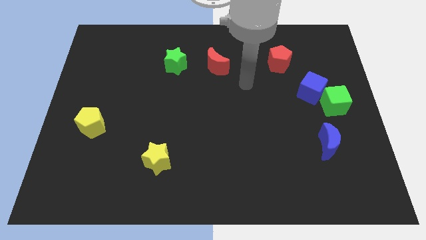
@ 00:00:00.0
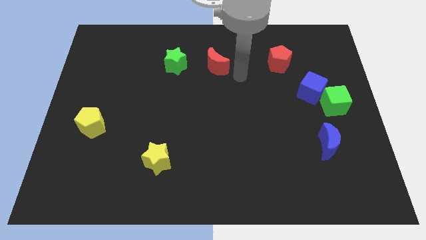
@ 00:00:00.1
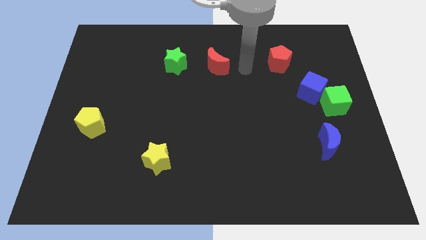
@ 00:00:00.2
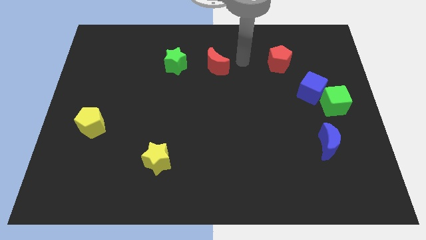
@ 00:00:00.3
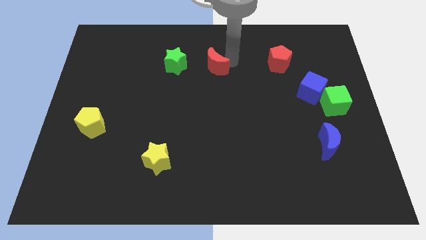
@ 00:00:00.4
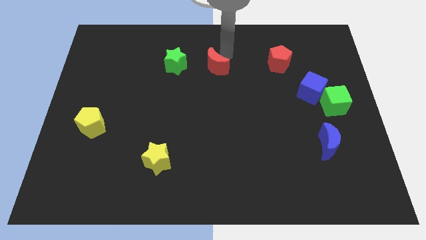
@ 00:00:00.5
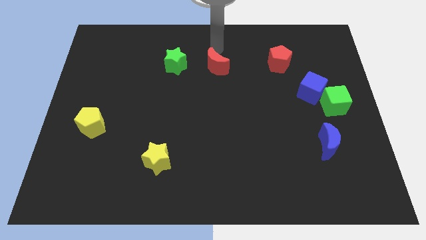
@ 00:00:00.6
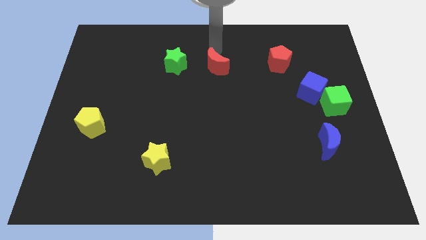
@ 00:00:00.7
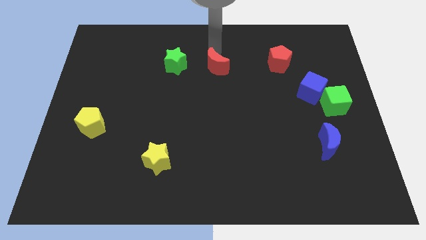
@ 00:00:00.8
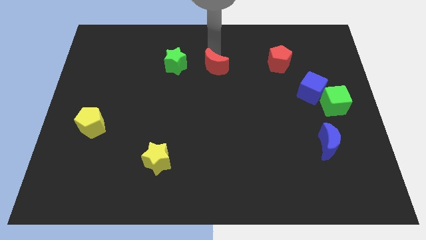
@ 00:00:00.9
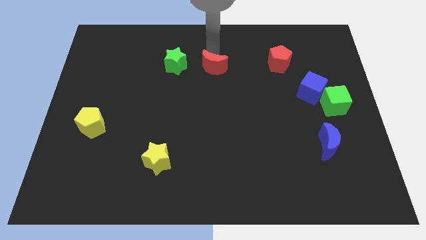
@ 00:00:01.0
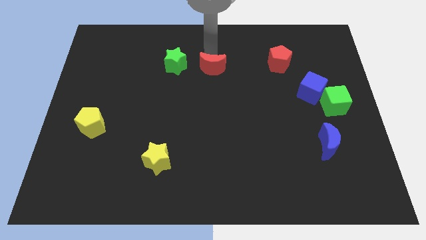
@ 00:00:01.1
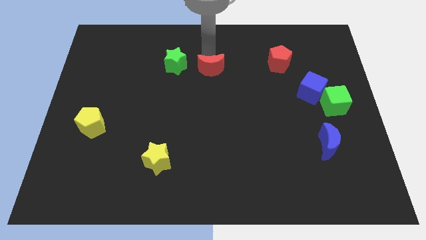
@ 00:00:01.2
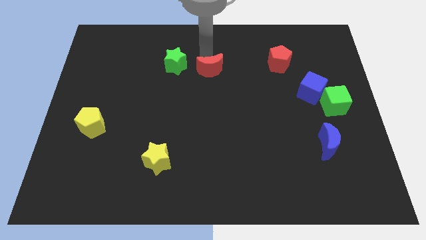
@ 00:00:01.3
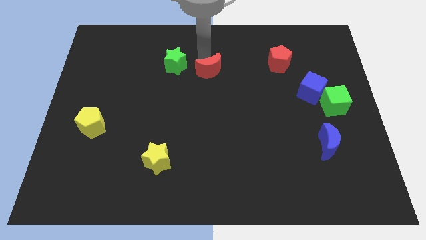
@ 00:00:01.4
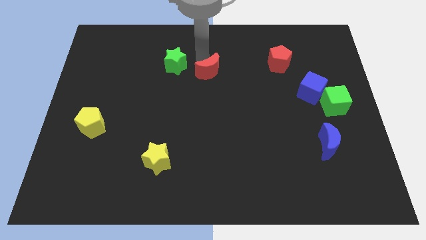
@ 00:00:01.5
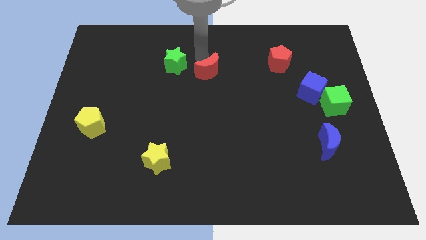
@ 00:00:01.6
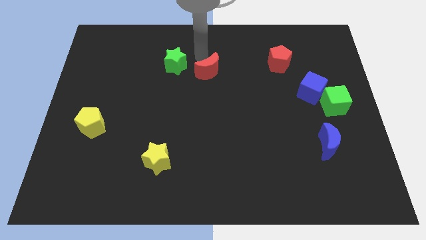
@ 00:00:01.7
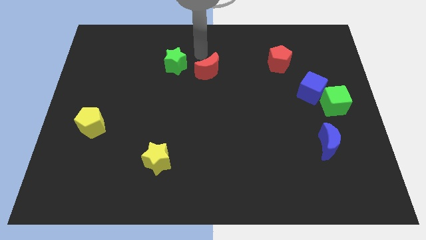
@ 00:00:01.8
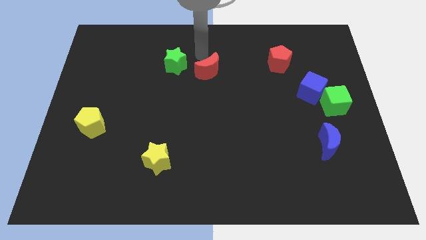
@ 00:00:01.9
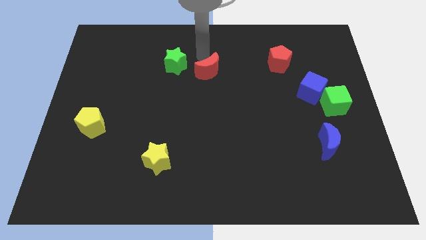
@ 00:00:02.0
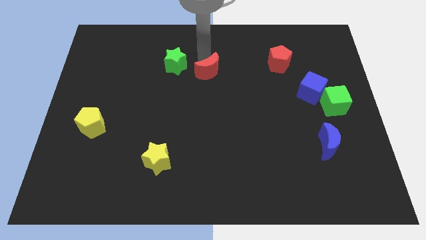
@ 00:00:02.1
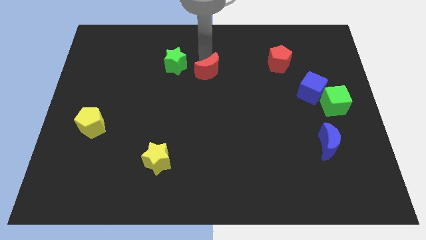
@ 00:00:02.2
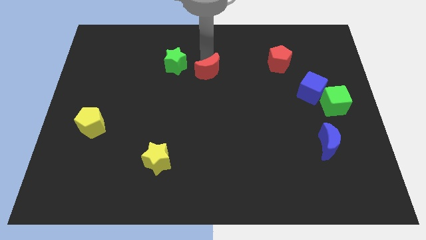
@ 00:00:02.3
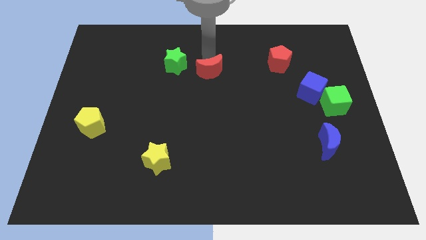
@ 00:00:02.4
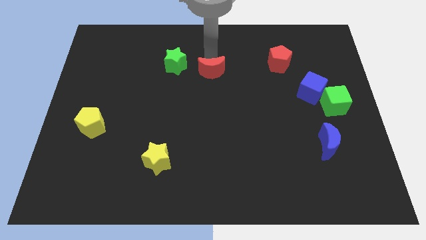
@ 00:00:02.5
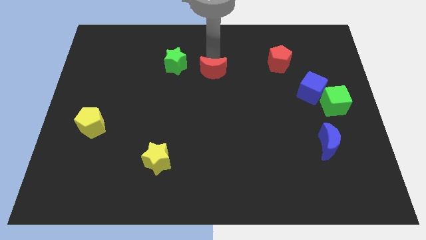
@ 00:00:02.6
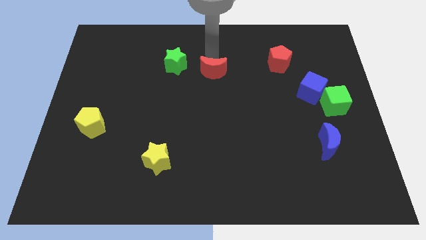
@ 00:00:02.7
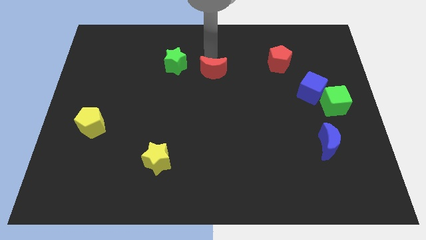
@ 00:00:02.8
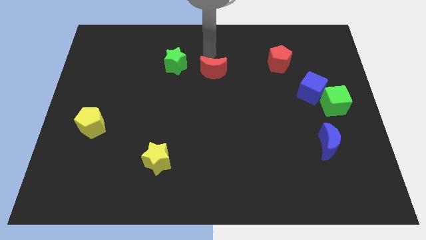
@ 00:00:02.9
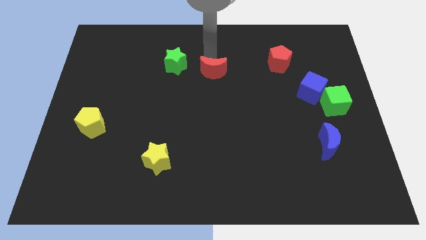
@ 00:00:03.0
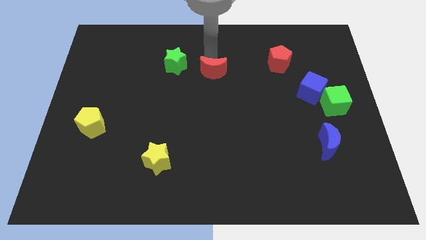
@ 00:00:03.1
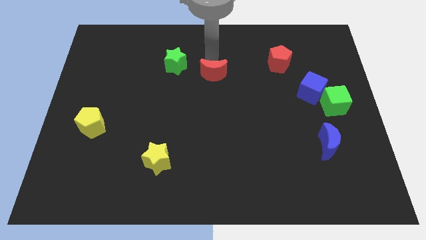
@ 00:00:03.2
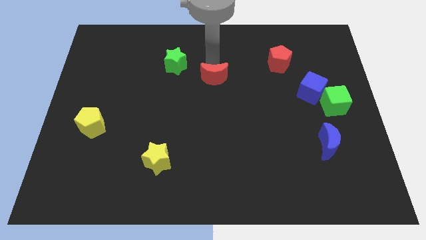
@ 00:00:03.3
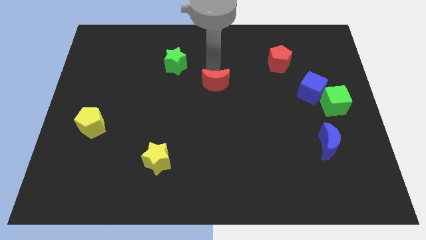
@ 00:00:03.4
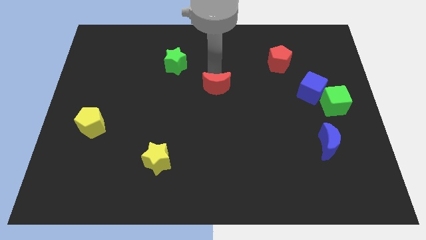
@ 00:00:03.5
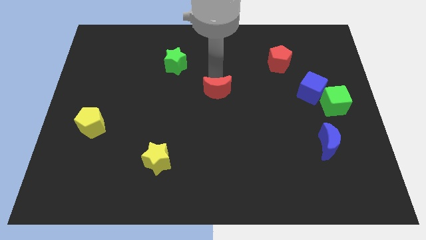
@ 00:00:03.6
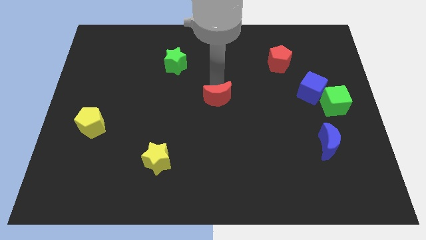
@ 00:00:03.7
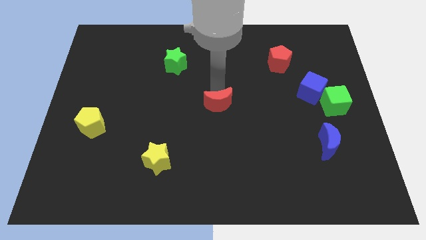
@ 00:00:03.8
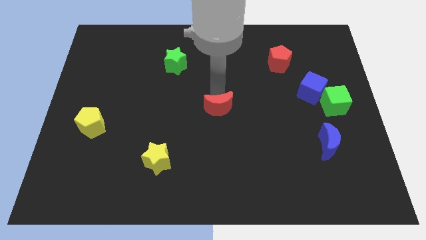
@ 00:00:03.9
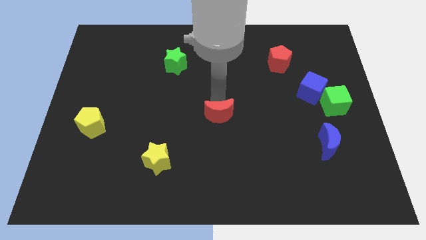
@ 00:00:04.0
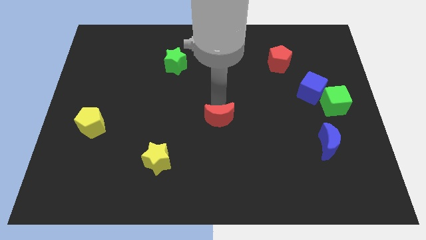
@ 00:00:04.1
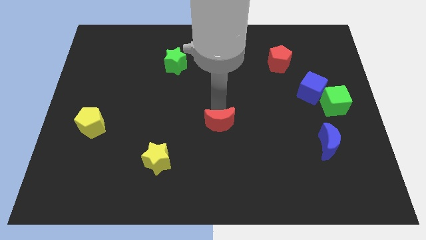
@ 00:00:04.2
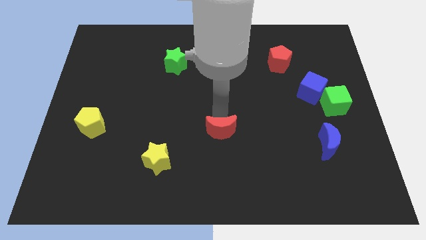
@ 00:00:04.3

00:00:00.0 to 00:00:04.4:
push the red moon downwards

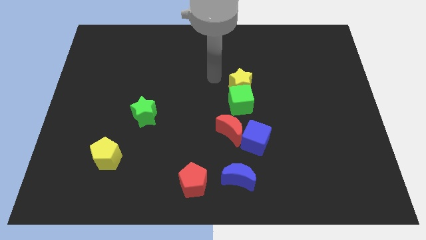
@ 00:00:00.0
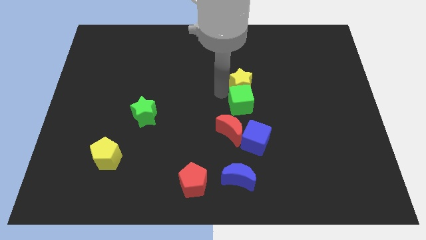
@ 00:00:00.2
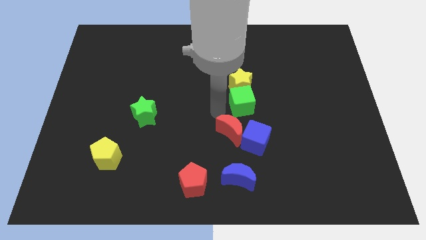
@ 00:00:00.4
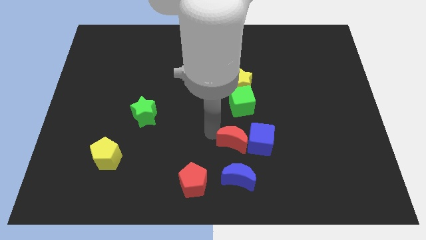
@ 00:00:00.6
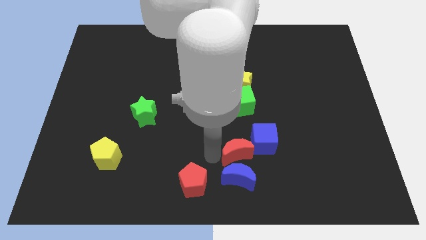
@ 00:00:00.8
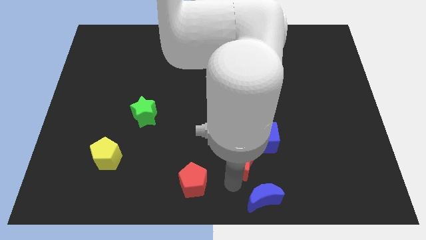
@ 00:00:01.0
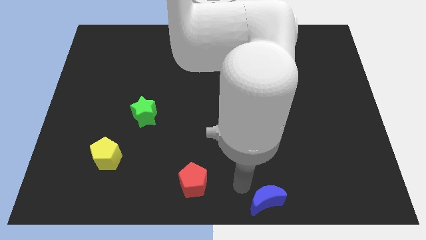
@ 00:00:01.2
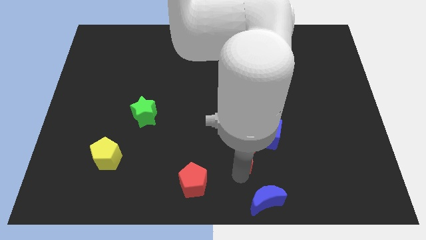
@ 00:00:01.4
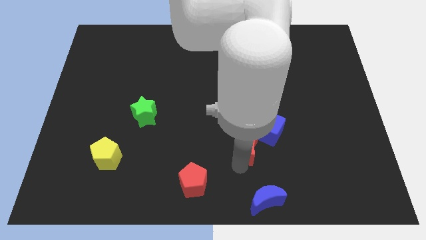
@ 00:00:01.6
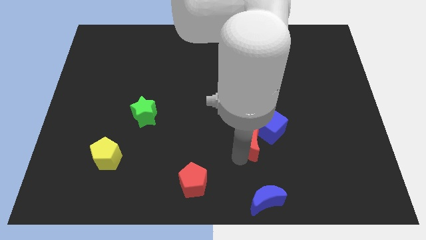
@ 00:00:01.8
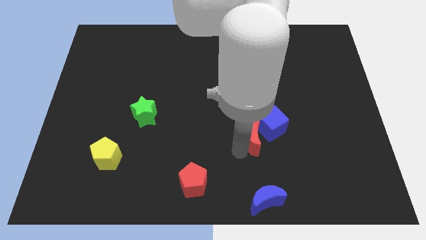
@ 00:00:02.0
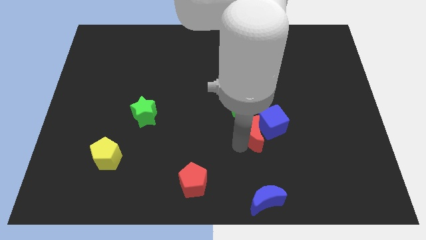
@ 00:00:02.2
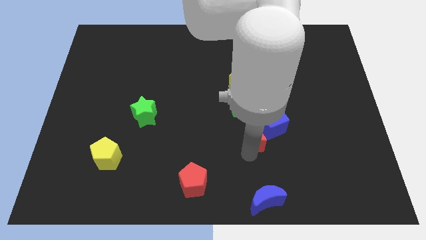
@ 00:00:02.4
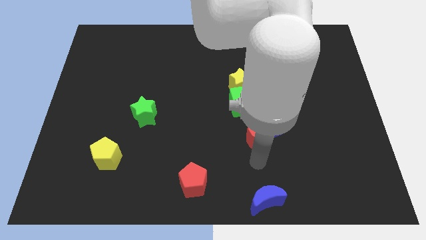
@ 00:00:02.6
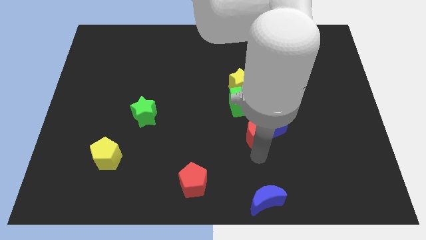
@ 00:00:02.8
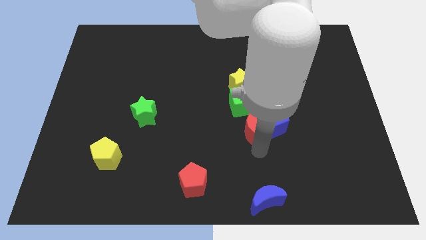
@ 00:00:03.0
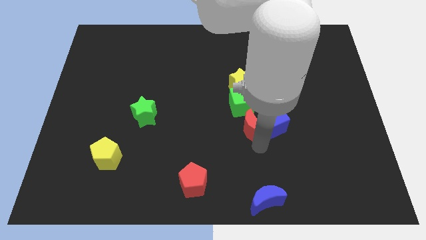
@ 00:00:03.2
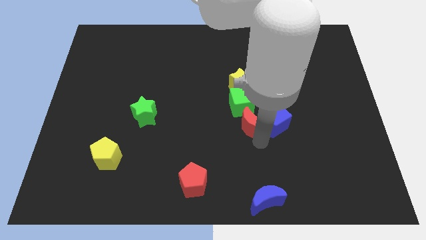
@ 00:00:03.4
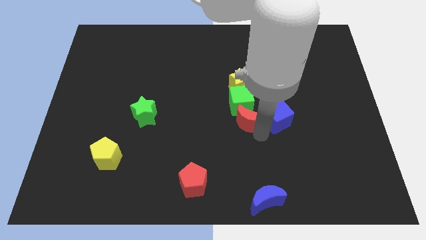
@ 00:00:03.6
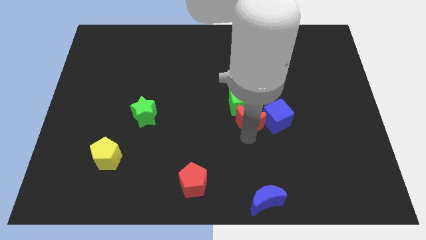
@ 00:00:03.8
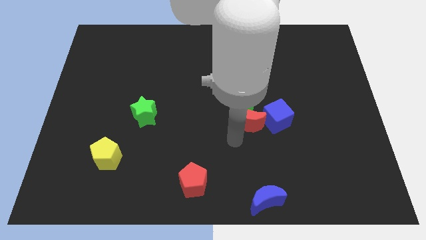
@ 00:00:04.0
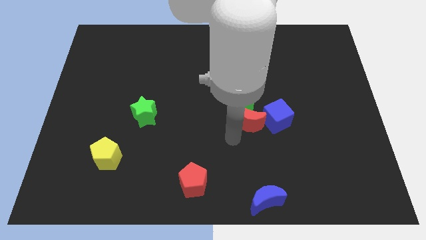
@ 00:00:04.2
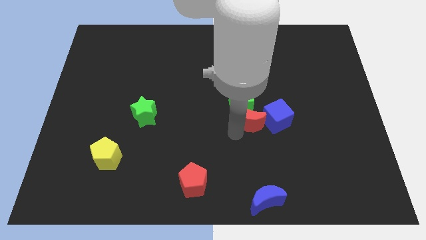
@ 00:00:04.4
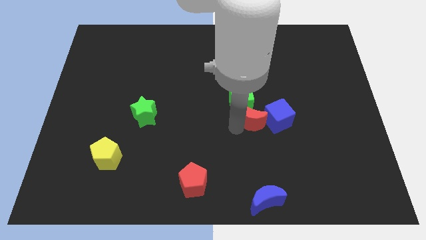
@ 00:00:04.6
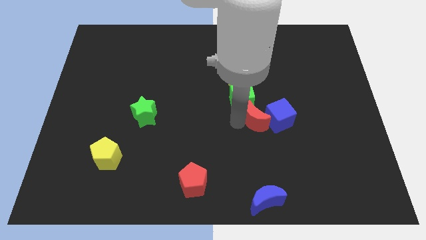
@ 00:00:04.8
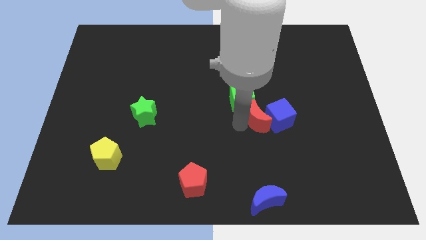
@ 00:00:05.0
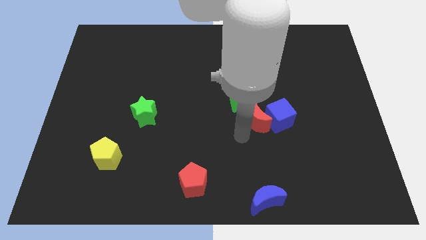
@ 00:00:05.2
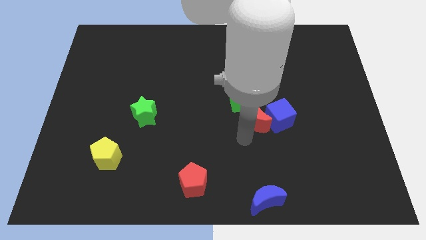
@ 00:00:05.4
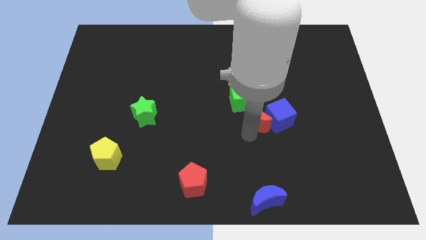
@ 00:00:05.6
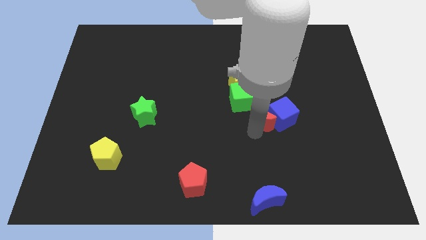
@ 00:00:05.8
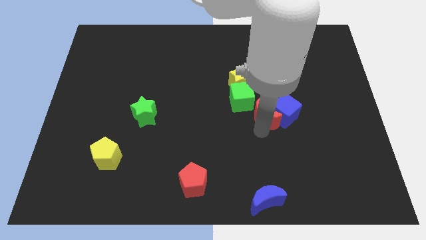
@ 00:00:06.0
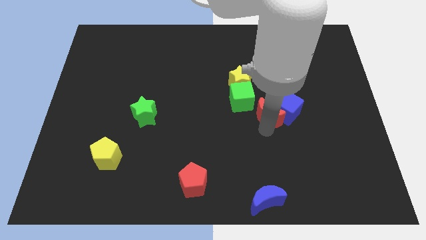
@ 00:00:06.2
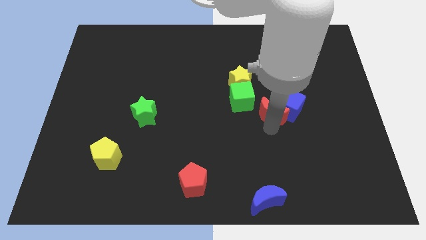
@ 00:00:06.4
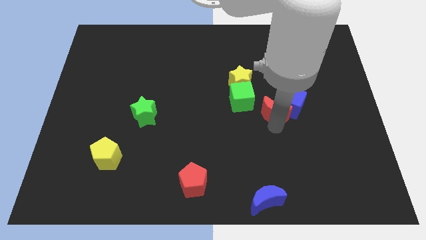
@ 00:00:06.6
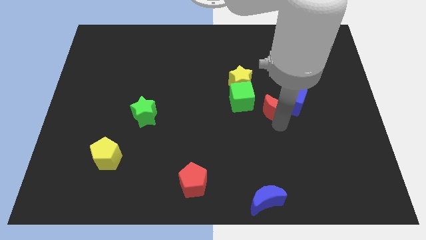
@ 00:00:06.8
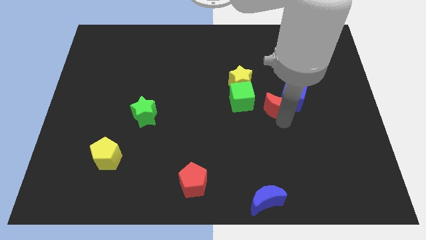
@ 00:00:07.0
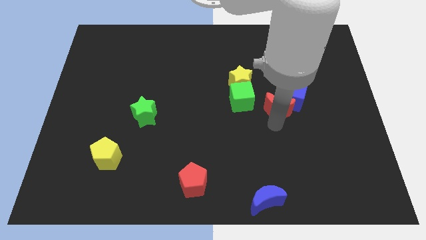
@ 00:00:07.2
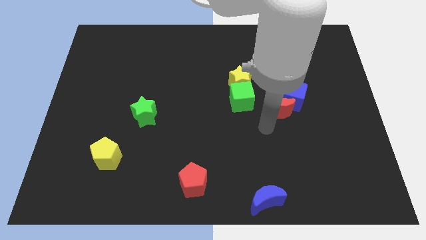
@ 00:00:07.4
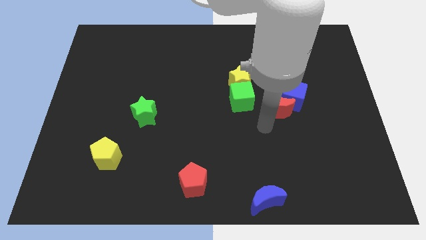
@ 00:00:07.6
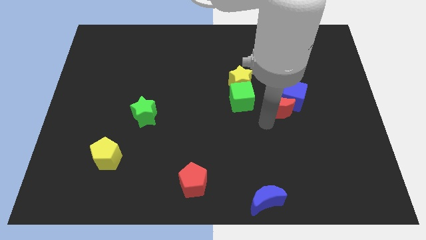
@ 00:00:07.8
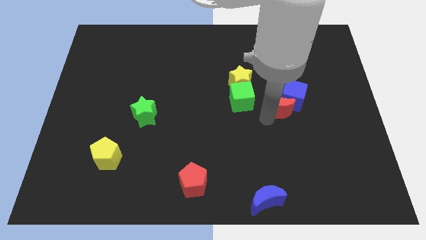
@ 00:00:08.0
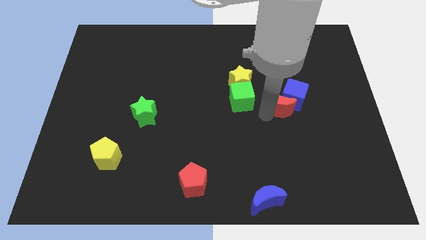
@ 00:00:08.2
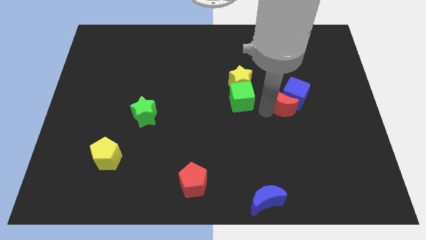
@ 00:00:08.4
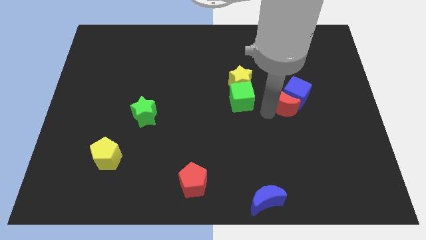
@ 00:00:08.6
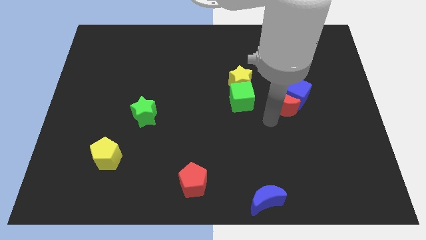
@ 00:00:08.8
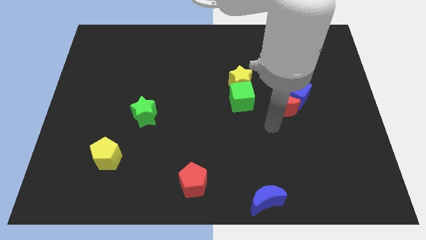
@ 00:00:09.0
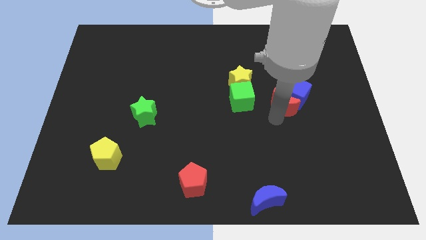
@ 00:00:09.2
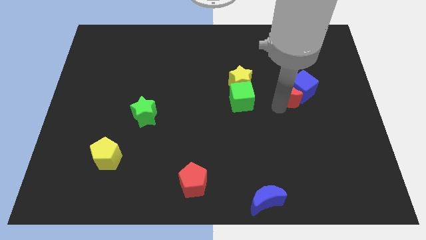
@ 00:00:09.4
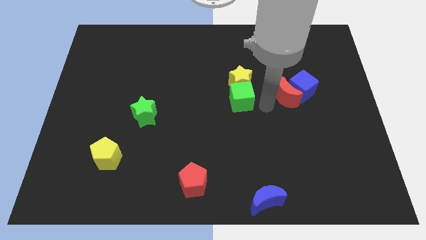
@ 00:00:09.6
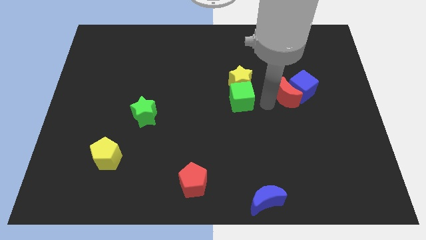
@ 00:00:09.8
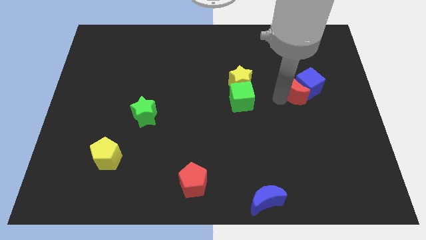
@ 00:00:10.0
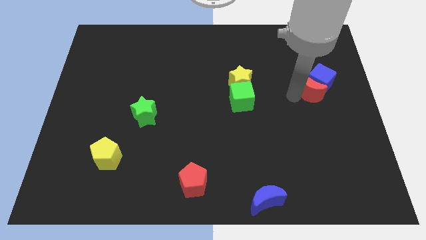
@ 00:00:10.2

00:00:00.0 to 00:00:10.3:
slide the red moon diagonally upwards and to the right
